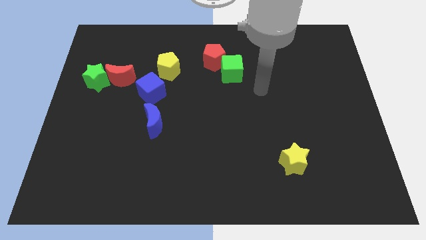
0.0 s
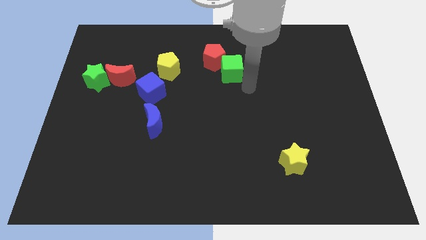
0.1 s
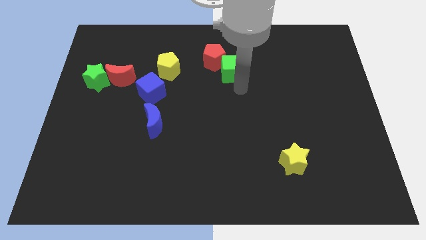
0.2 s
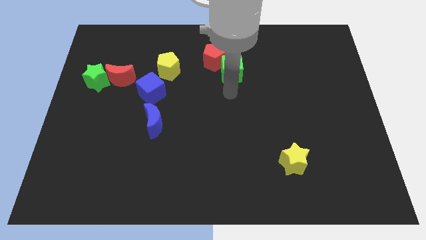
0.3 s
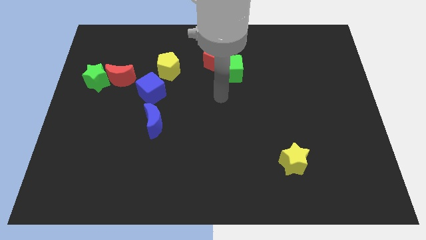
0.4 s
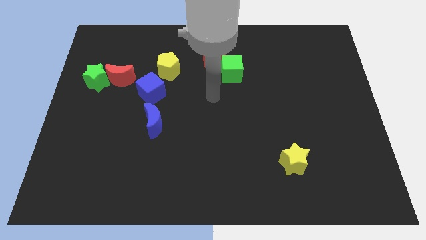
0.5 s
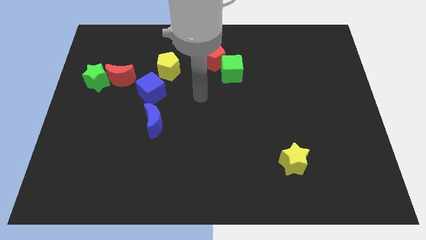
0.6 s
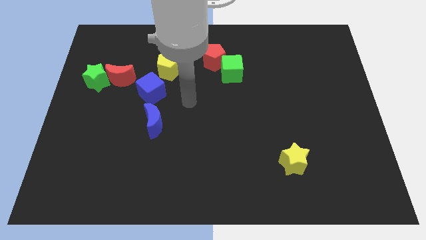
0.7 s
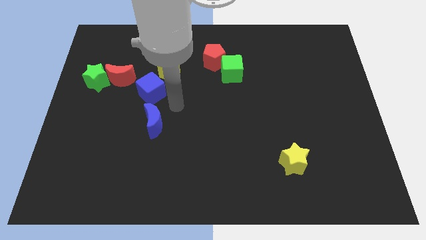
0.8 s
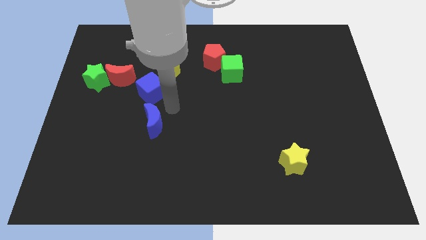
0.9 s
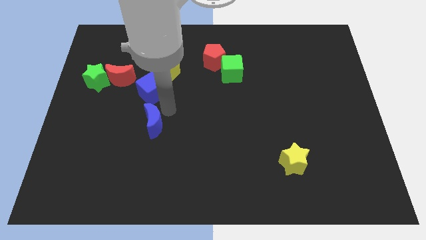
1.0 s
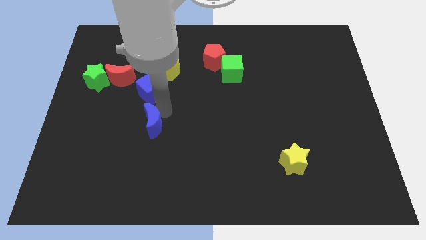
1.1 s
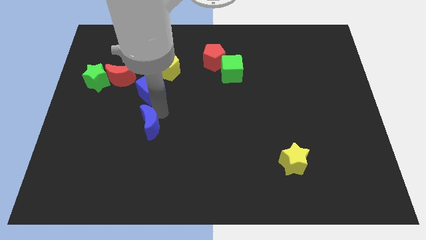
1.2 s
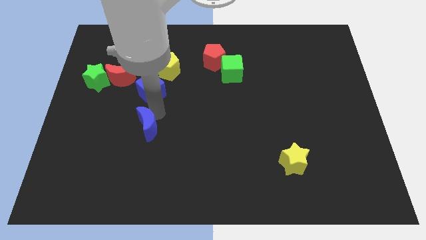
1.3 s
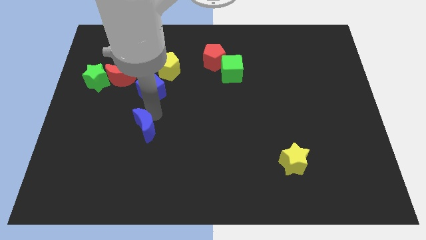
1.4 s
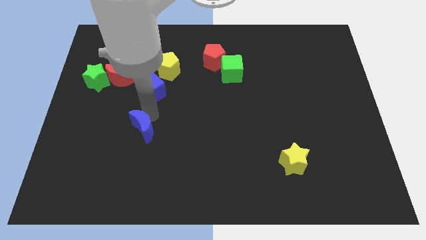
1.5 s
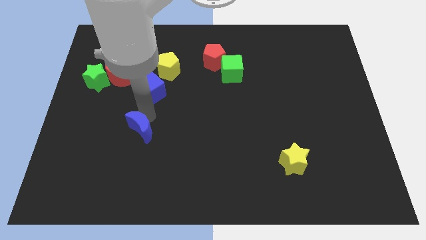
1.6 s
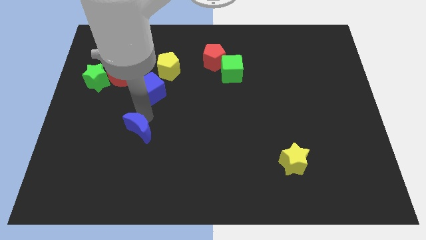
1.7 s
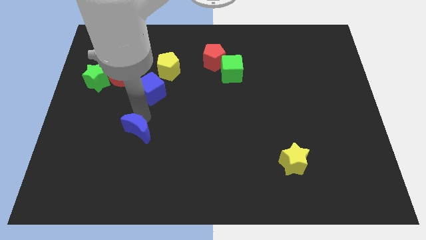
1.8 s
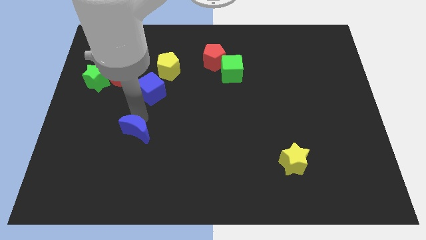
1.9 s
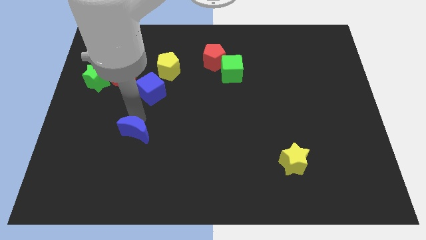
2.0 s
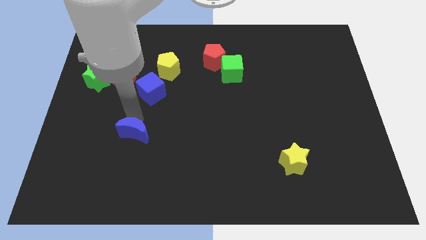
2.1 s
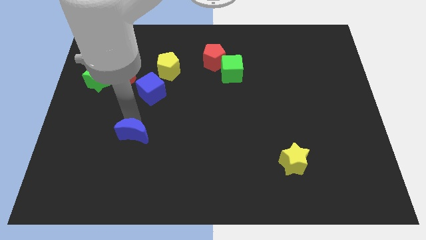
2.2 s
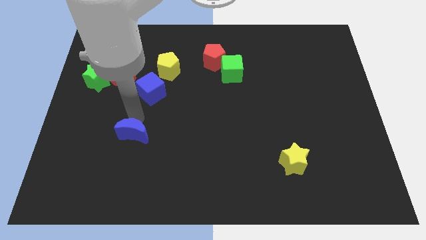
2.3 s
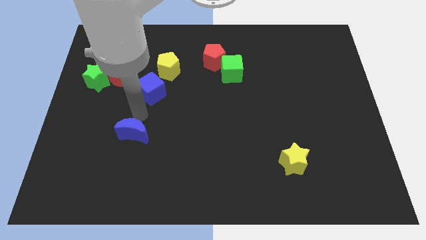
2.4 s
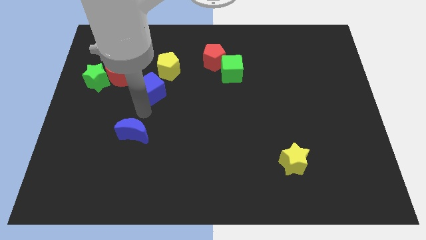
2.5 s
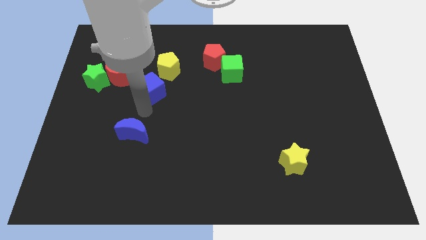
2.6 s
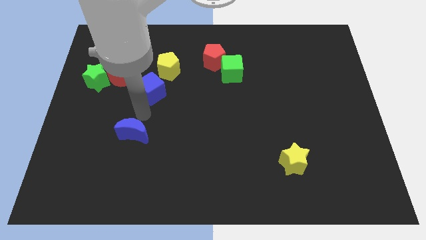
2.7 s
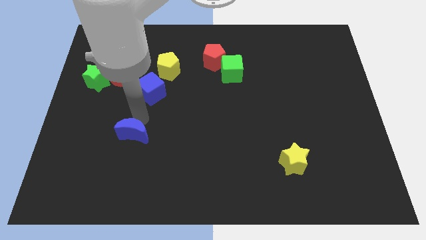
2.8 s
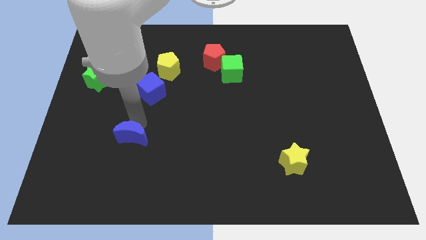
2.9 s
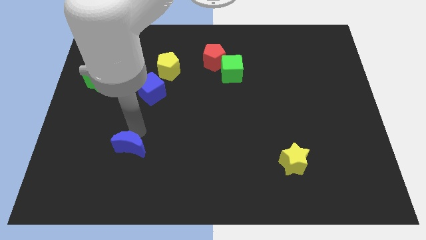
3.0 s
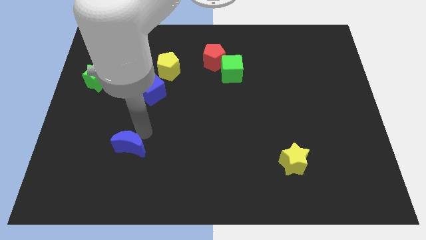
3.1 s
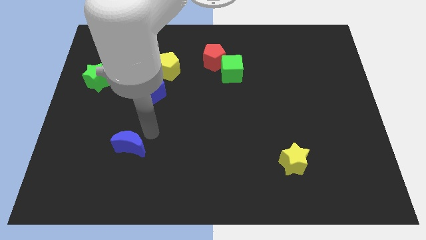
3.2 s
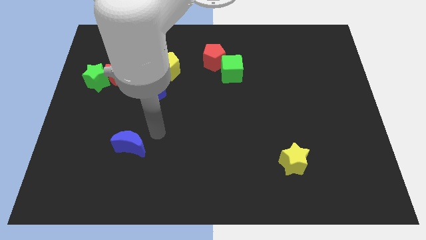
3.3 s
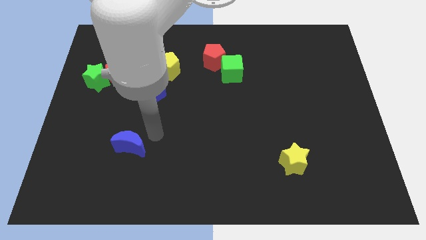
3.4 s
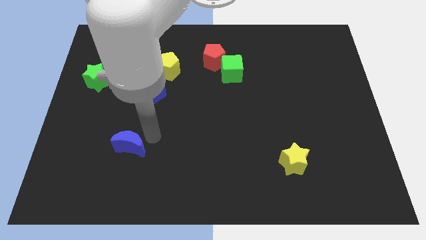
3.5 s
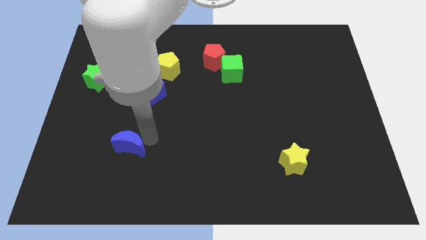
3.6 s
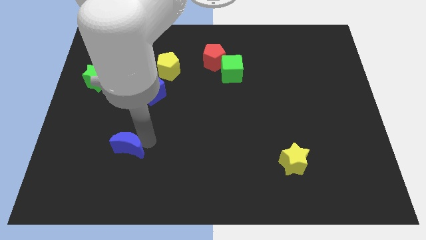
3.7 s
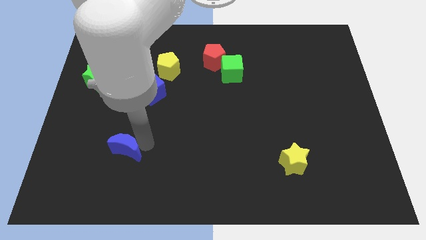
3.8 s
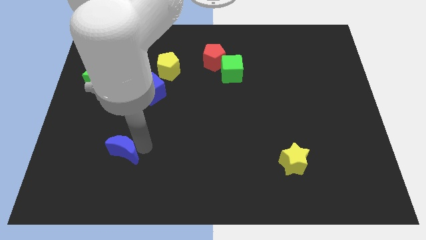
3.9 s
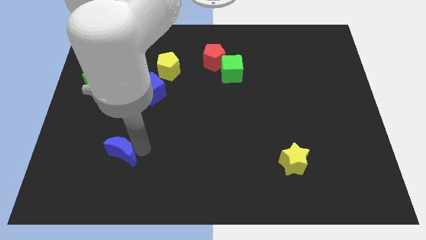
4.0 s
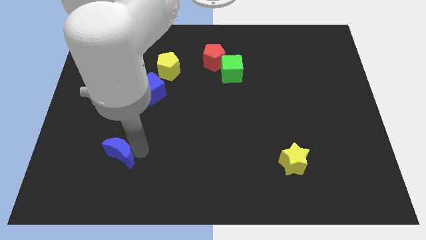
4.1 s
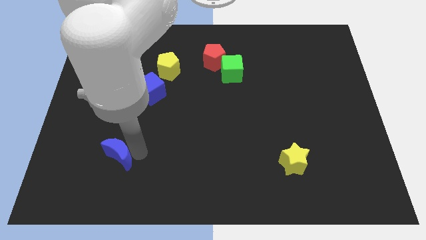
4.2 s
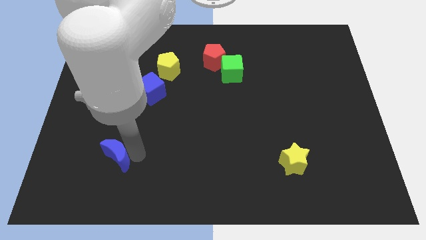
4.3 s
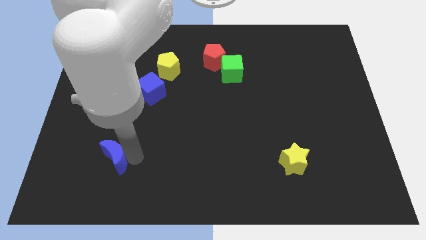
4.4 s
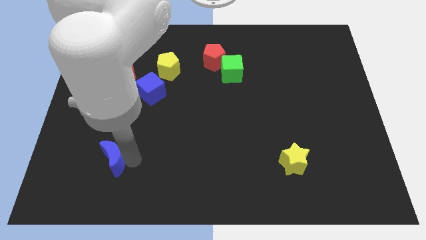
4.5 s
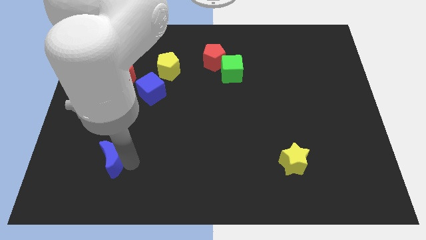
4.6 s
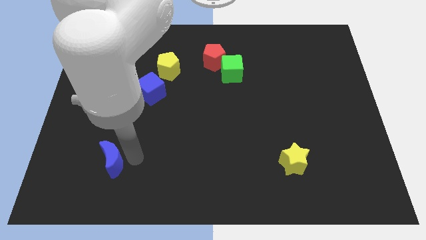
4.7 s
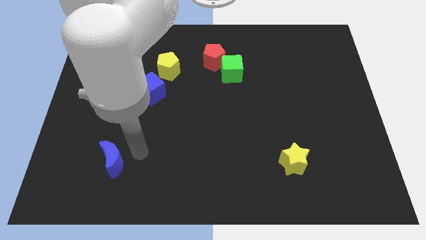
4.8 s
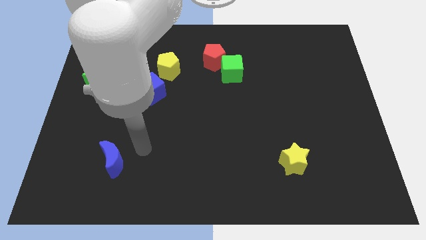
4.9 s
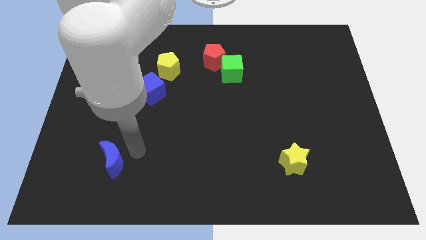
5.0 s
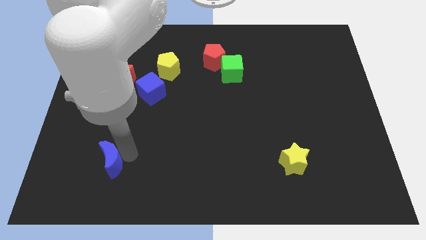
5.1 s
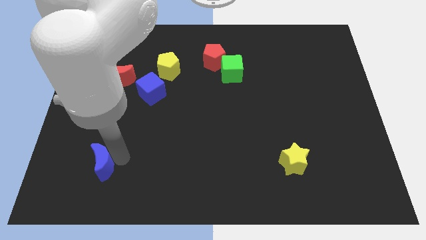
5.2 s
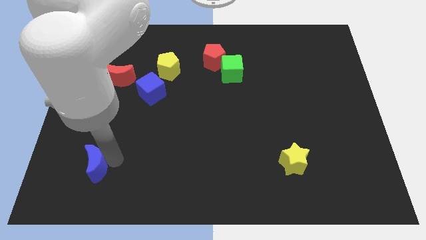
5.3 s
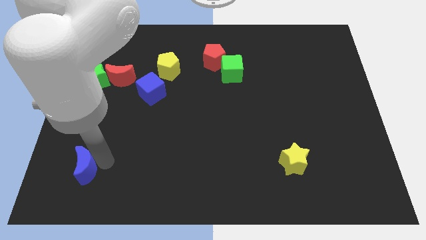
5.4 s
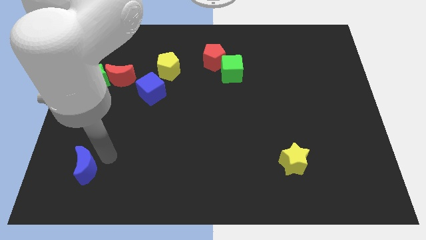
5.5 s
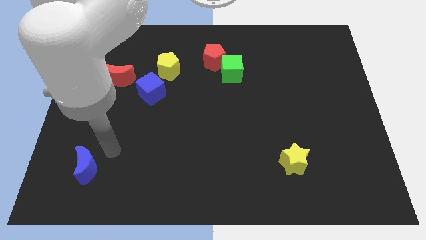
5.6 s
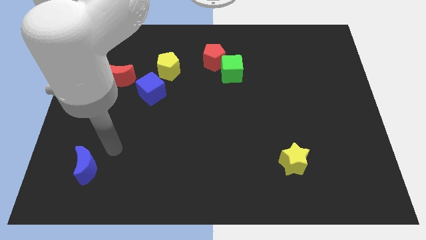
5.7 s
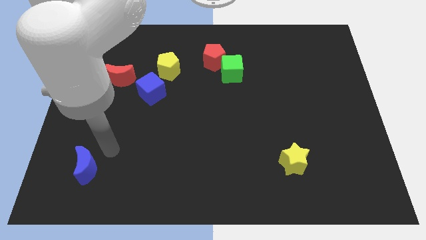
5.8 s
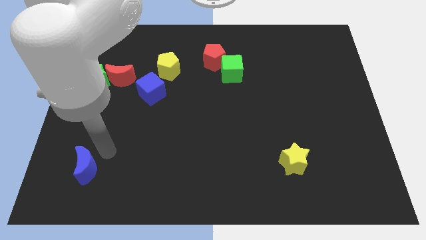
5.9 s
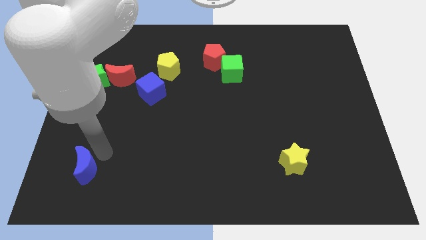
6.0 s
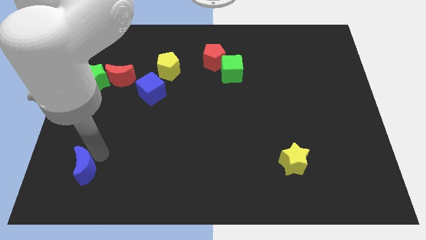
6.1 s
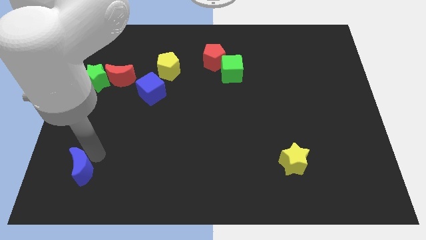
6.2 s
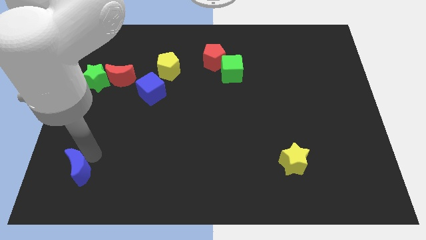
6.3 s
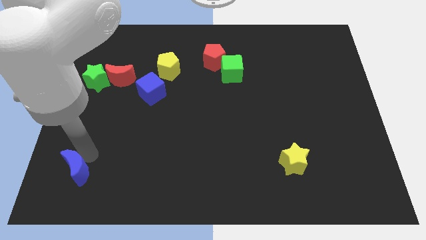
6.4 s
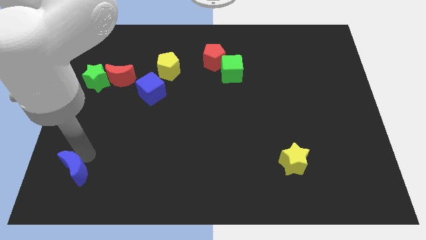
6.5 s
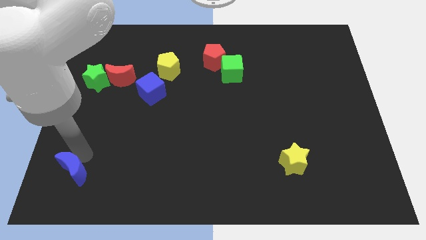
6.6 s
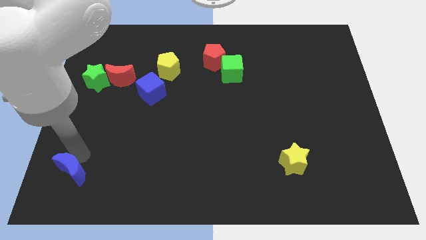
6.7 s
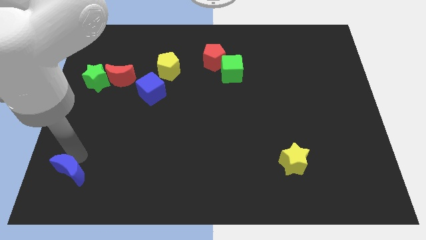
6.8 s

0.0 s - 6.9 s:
move the blue moon to the bottom left of the board

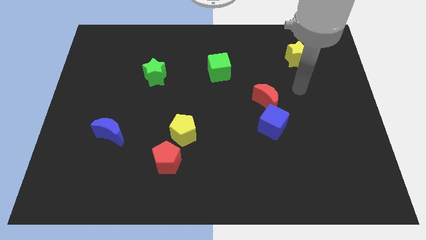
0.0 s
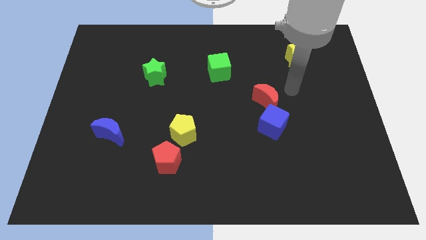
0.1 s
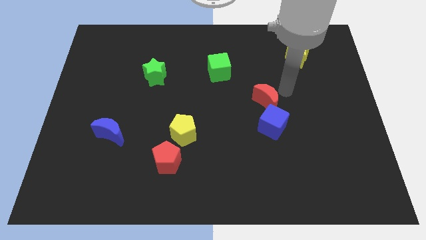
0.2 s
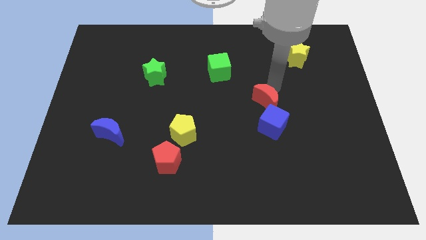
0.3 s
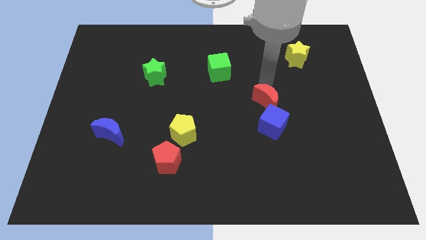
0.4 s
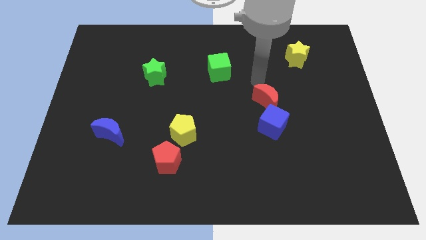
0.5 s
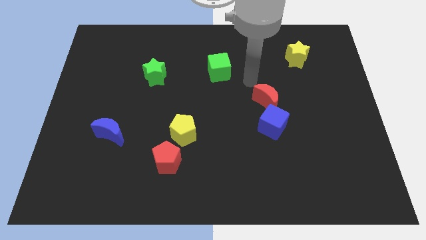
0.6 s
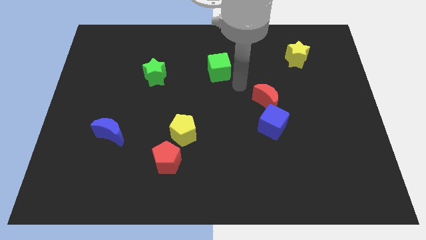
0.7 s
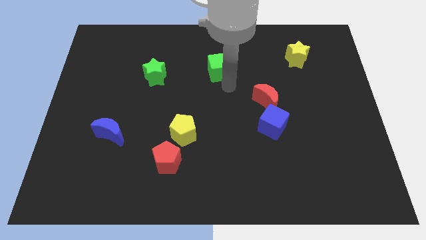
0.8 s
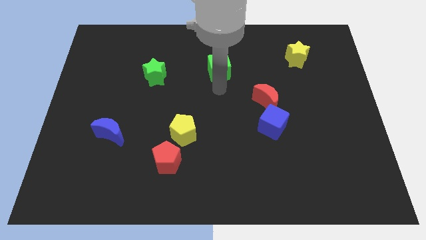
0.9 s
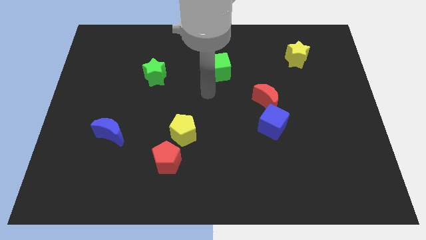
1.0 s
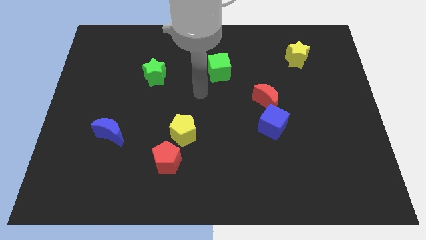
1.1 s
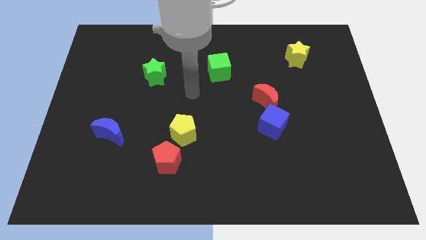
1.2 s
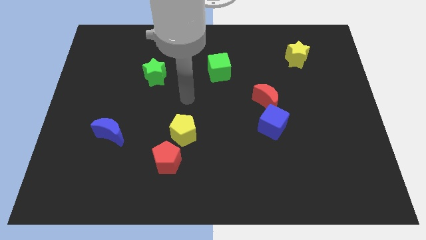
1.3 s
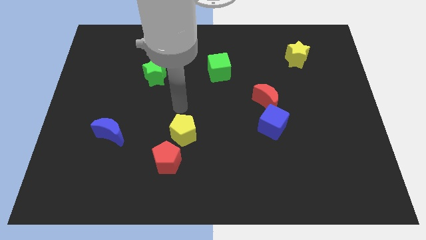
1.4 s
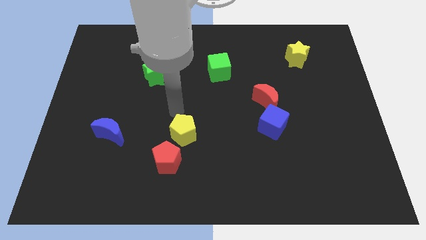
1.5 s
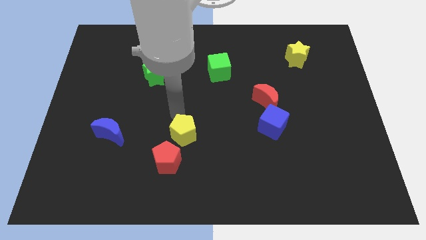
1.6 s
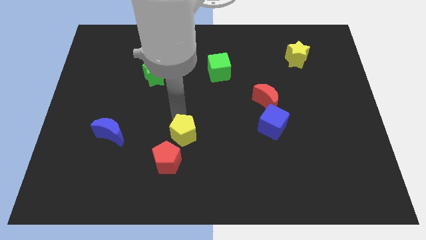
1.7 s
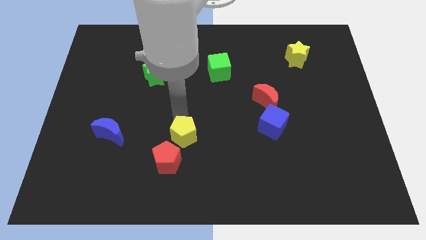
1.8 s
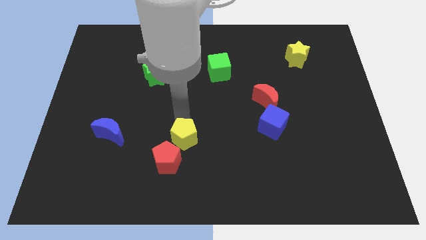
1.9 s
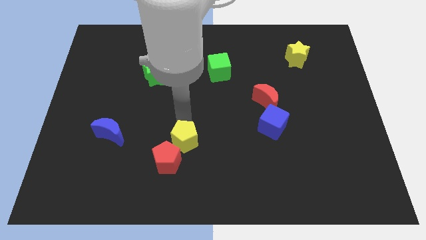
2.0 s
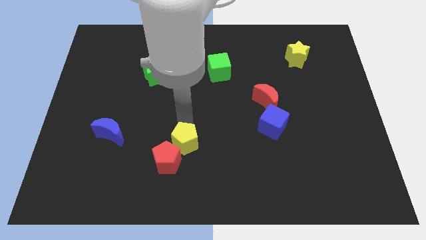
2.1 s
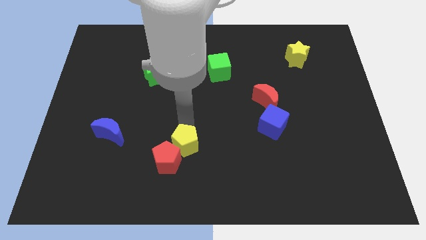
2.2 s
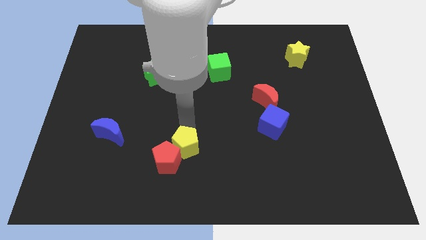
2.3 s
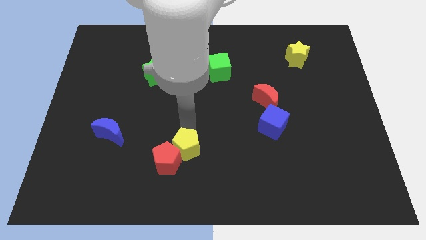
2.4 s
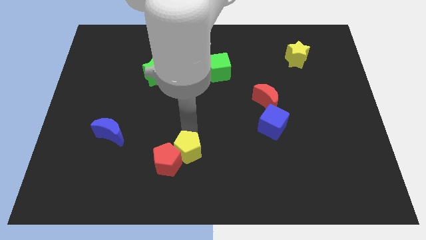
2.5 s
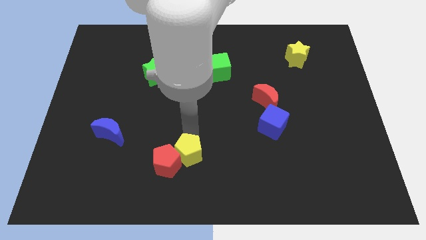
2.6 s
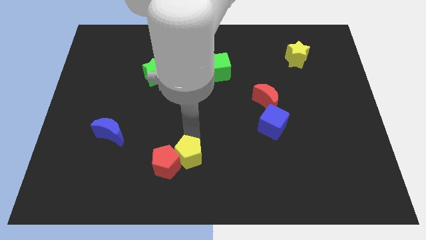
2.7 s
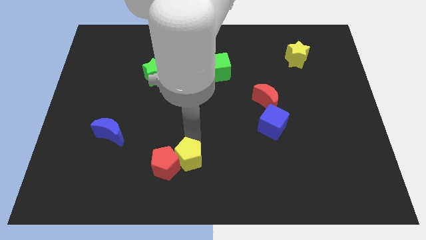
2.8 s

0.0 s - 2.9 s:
slide the yellow pentagon to the bottom
